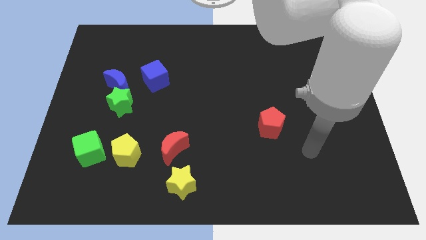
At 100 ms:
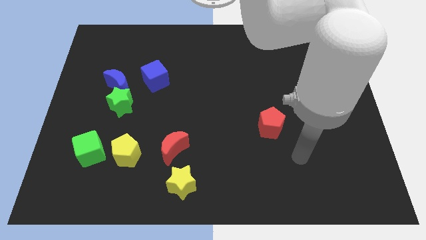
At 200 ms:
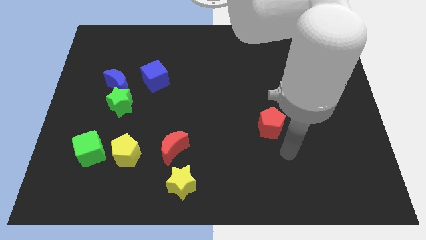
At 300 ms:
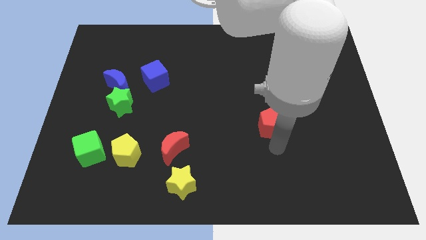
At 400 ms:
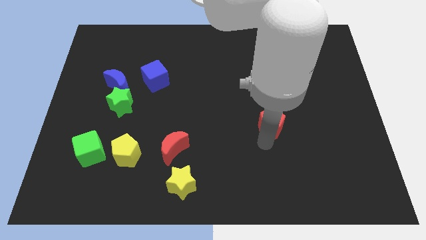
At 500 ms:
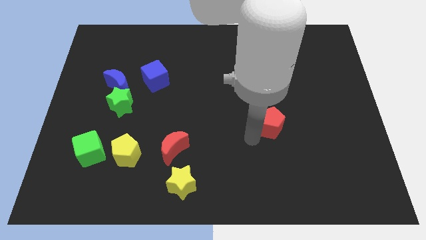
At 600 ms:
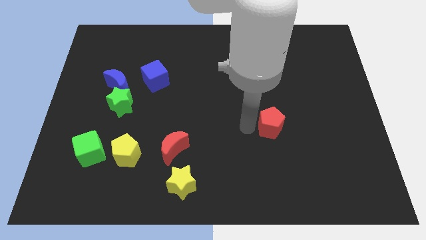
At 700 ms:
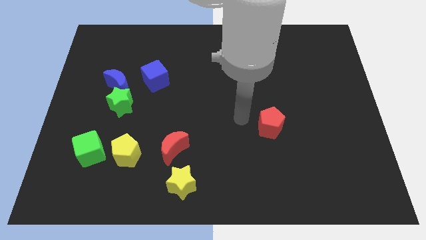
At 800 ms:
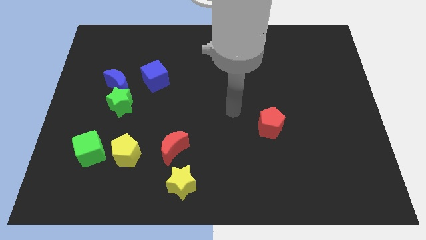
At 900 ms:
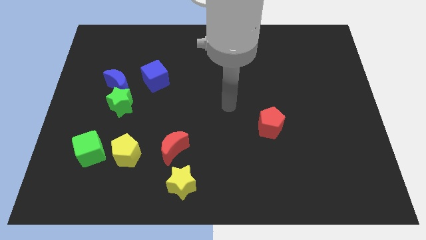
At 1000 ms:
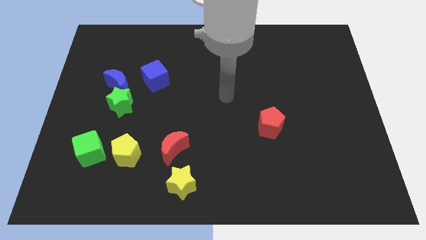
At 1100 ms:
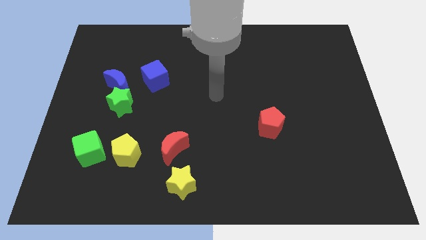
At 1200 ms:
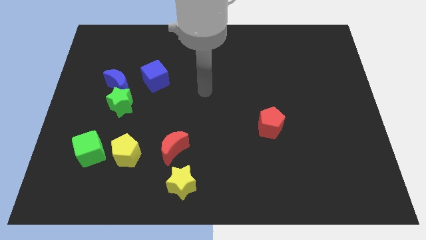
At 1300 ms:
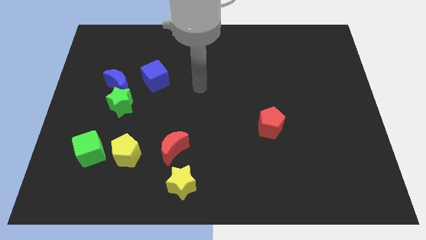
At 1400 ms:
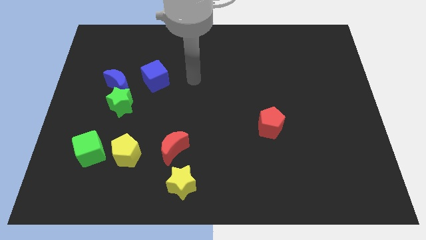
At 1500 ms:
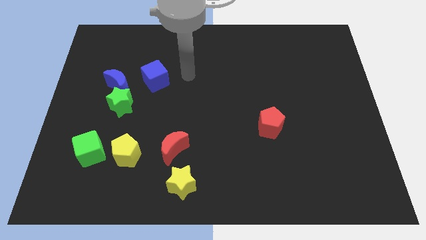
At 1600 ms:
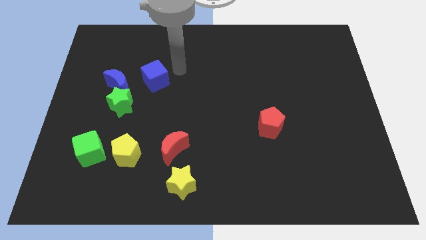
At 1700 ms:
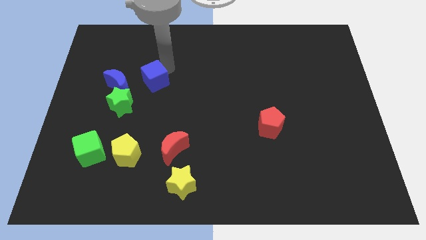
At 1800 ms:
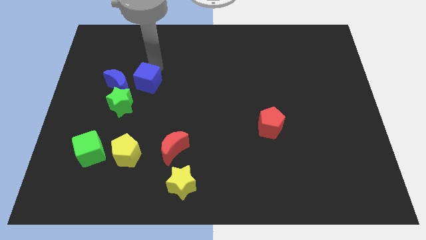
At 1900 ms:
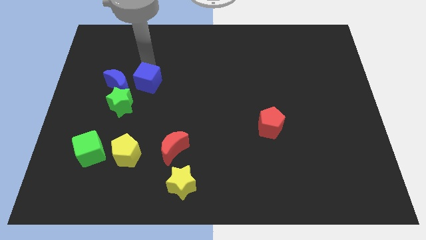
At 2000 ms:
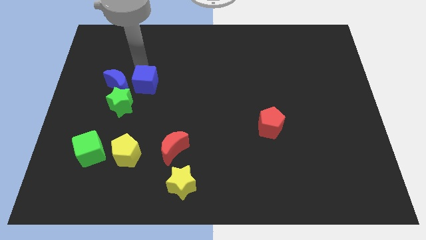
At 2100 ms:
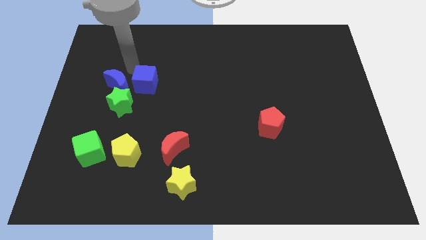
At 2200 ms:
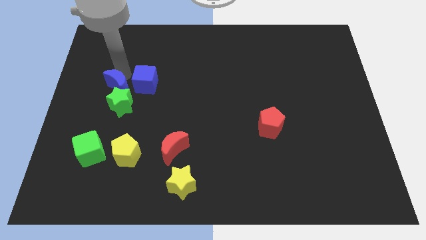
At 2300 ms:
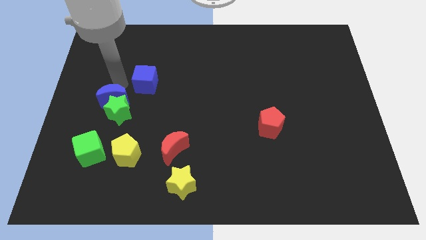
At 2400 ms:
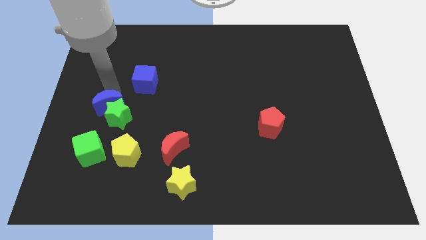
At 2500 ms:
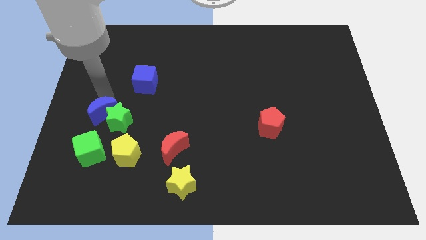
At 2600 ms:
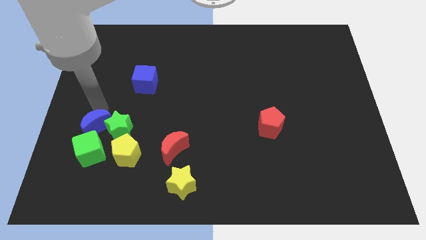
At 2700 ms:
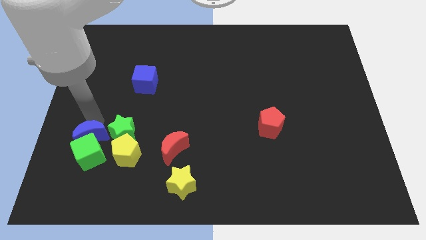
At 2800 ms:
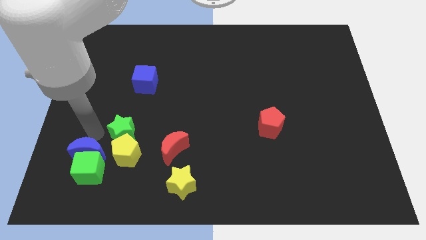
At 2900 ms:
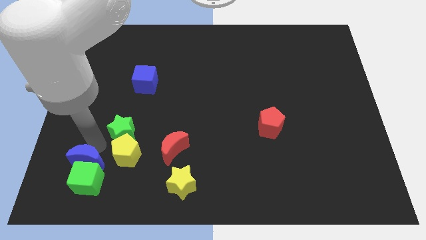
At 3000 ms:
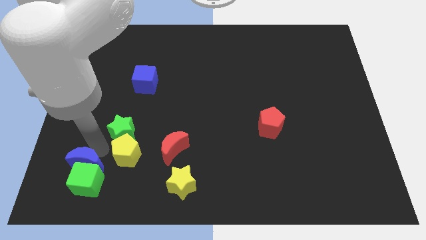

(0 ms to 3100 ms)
separate the green star from the blue moon

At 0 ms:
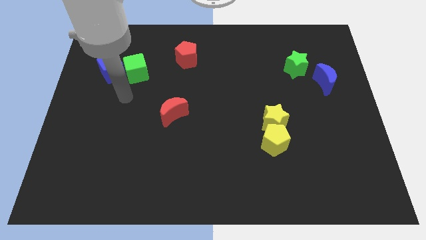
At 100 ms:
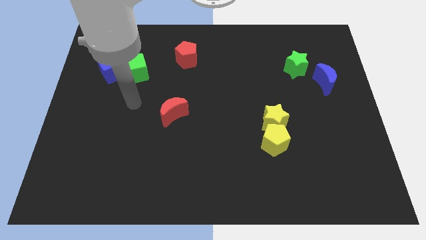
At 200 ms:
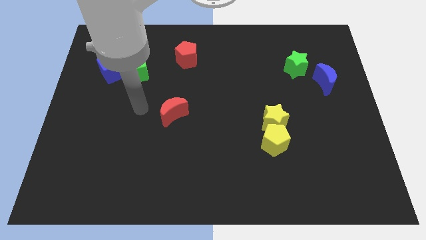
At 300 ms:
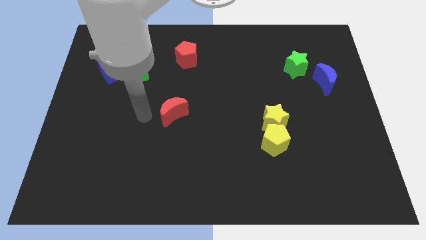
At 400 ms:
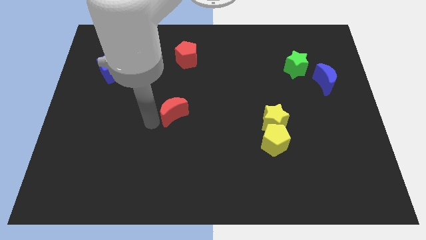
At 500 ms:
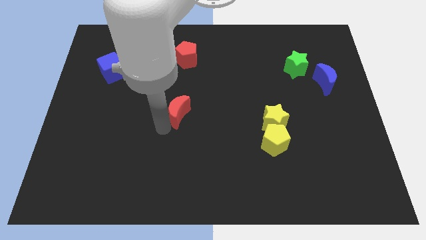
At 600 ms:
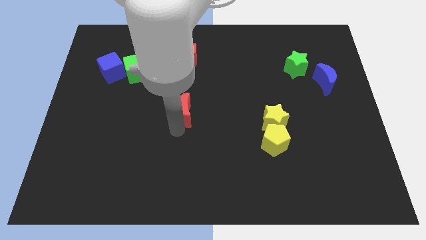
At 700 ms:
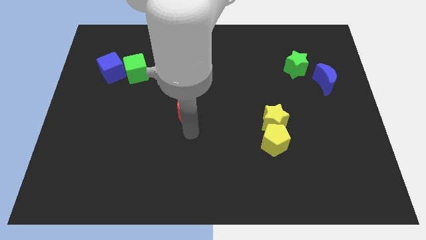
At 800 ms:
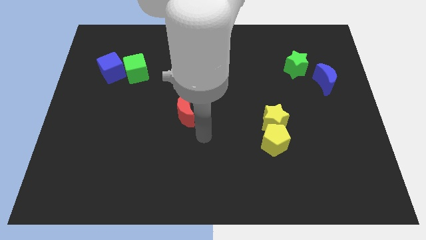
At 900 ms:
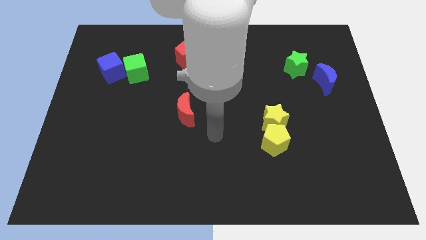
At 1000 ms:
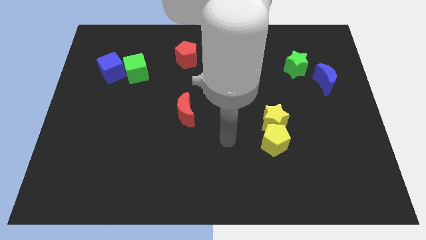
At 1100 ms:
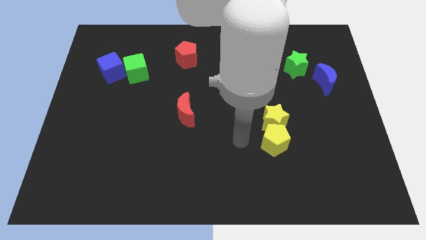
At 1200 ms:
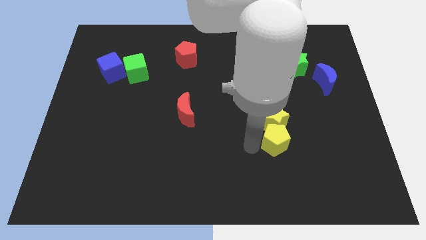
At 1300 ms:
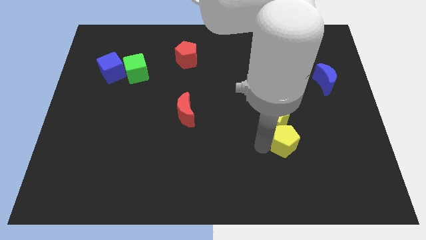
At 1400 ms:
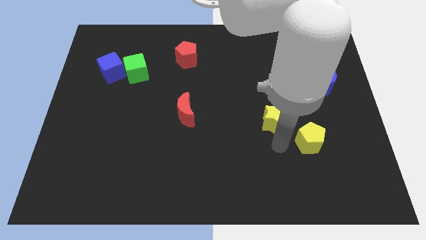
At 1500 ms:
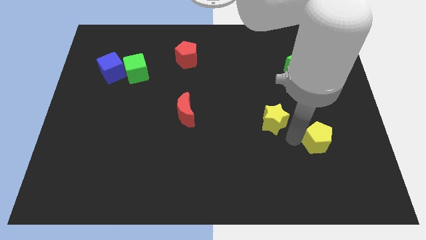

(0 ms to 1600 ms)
separate the yellow star from the yellow pentagon

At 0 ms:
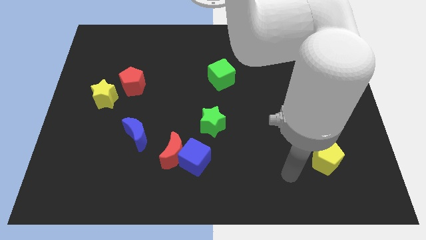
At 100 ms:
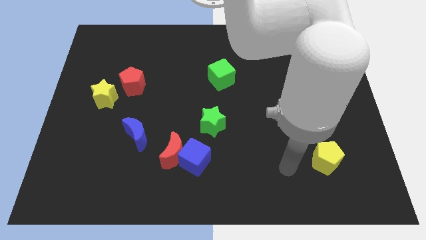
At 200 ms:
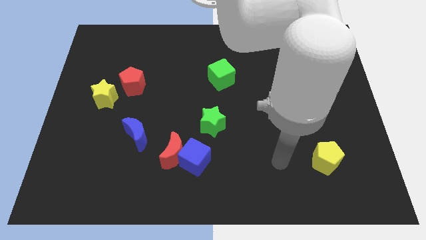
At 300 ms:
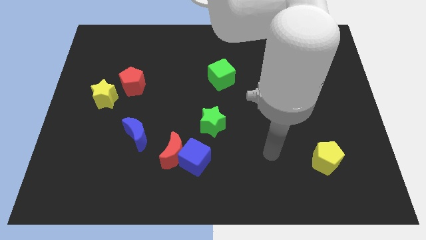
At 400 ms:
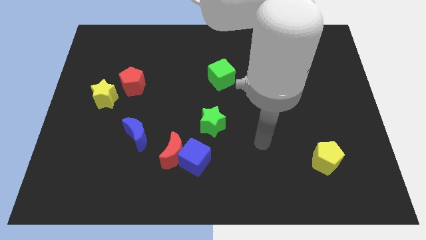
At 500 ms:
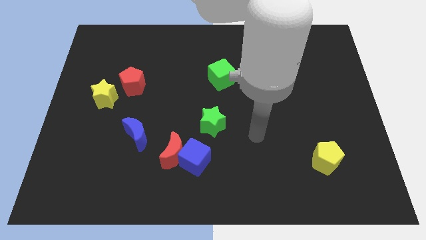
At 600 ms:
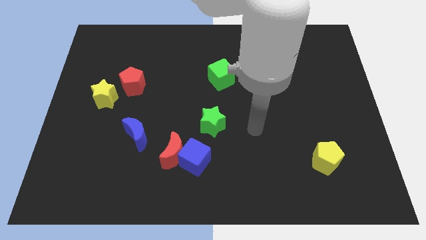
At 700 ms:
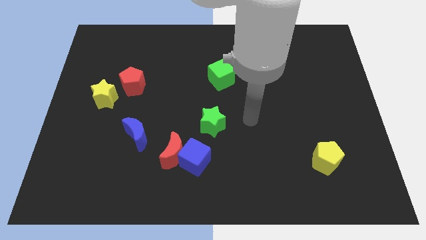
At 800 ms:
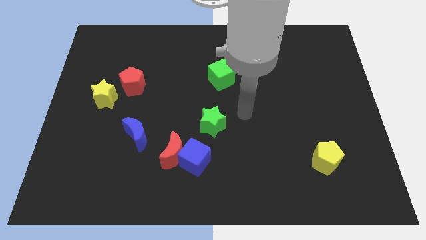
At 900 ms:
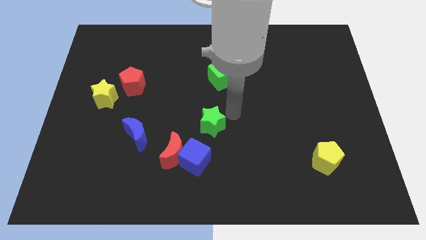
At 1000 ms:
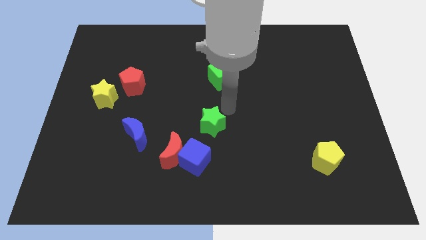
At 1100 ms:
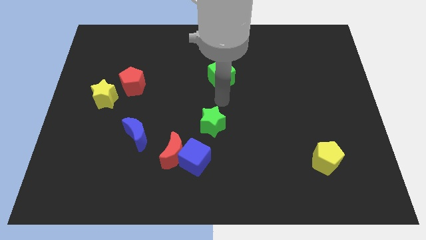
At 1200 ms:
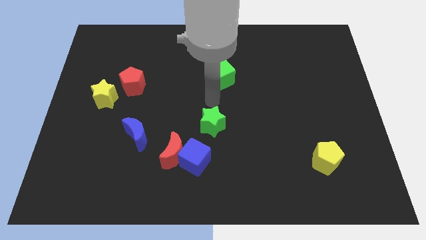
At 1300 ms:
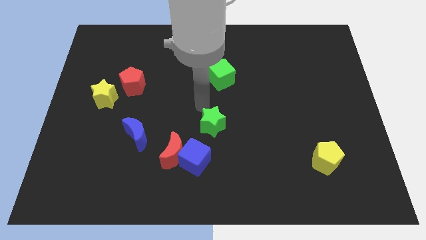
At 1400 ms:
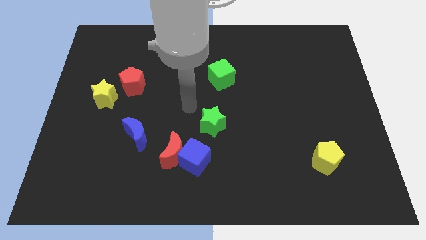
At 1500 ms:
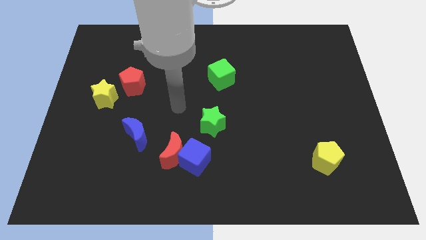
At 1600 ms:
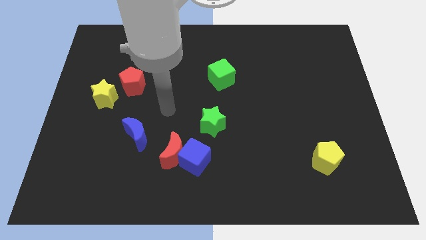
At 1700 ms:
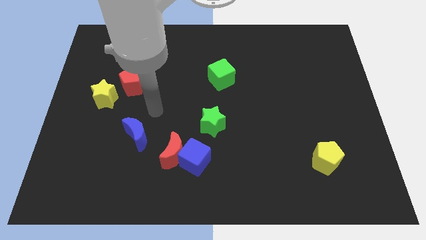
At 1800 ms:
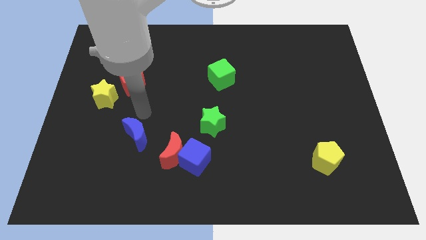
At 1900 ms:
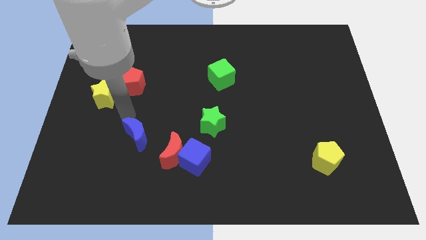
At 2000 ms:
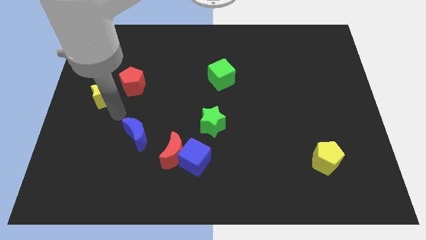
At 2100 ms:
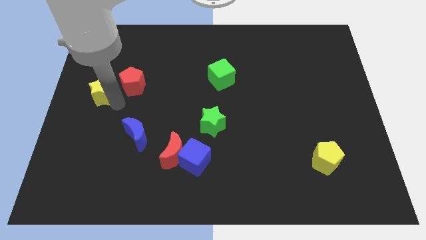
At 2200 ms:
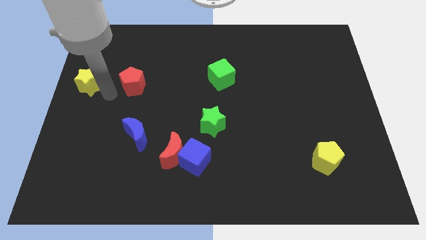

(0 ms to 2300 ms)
move the red pentagon away from the yellow star

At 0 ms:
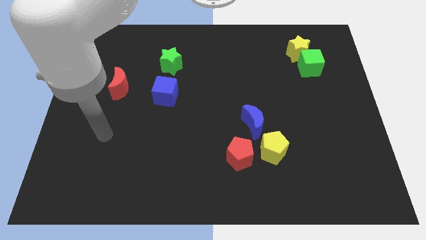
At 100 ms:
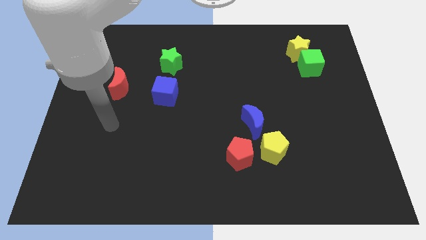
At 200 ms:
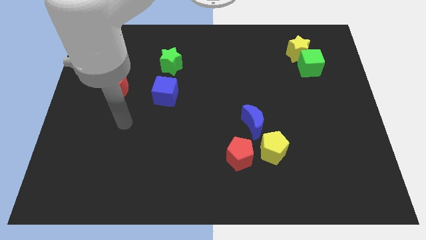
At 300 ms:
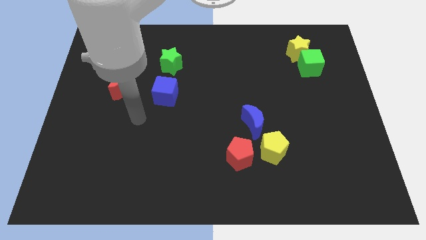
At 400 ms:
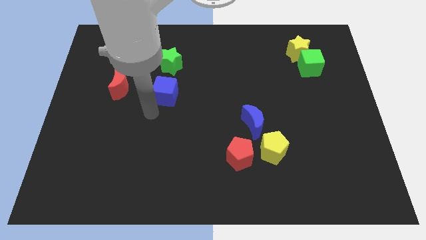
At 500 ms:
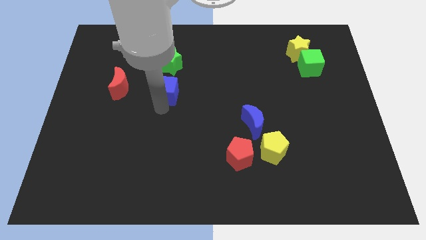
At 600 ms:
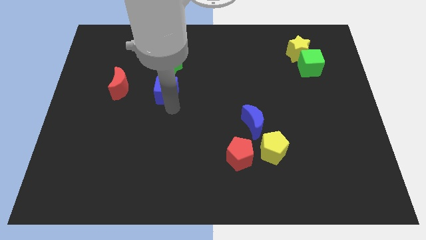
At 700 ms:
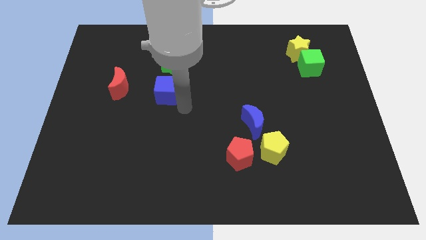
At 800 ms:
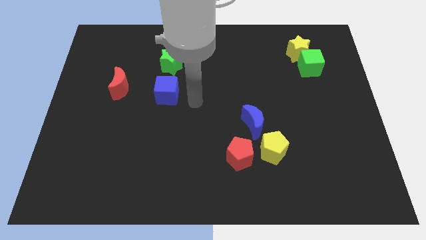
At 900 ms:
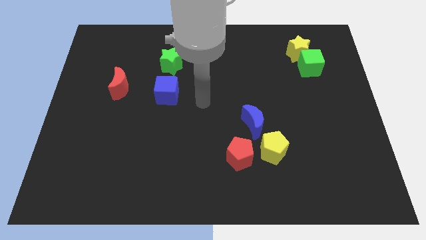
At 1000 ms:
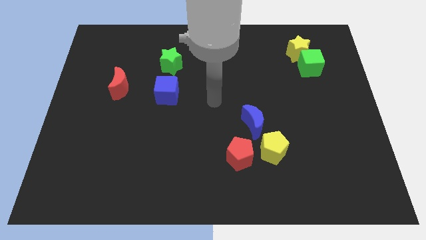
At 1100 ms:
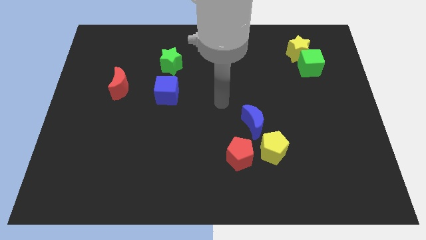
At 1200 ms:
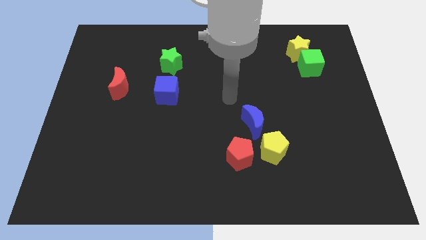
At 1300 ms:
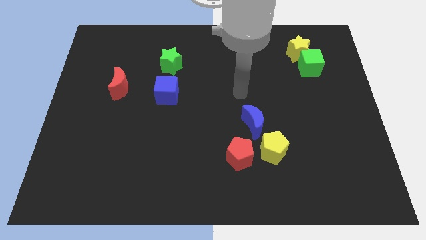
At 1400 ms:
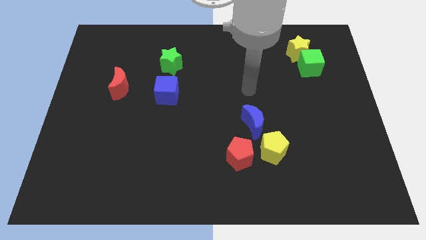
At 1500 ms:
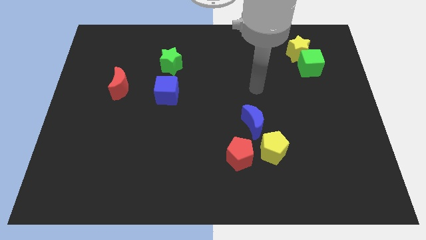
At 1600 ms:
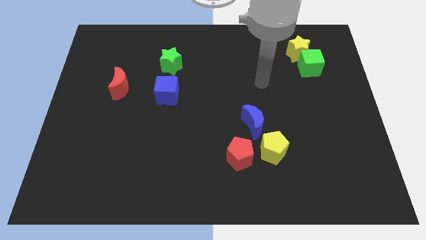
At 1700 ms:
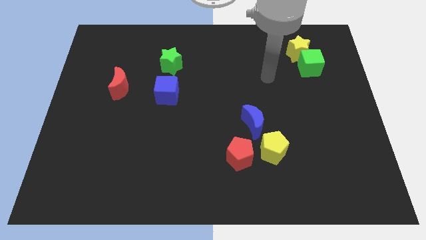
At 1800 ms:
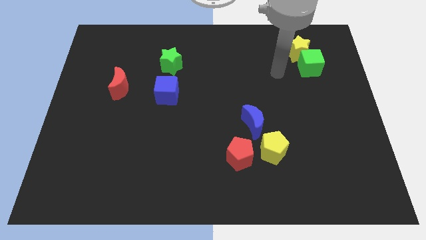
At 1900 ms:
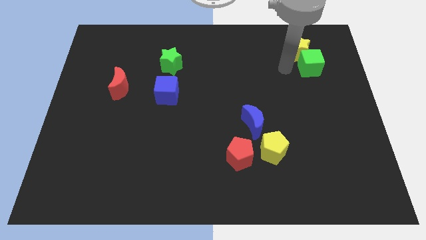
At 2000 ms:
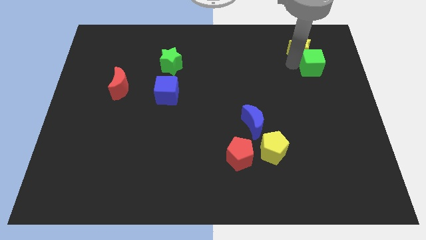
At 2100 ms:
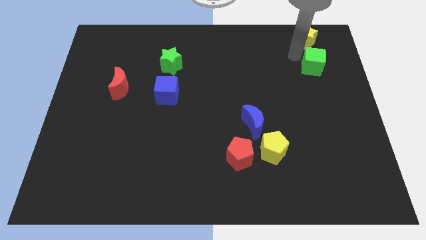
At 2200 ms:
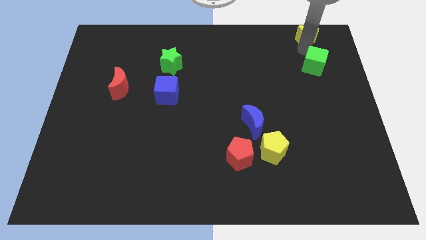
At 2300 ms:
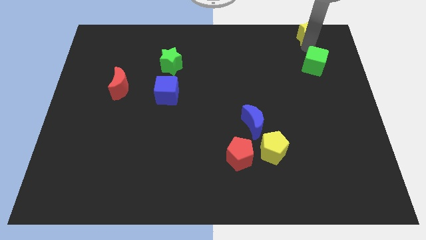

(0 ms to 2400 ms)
separate the green cube from the yellow star
